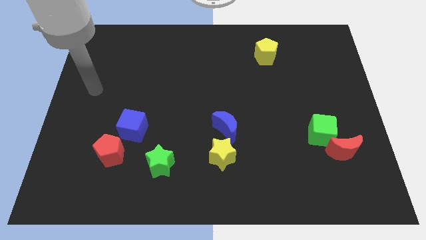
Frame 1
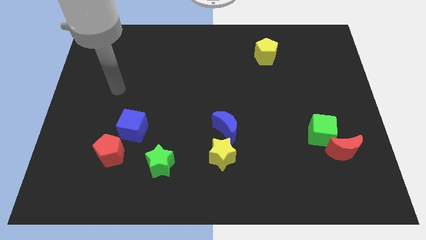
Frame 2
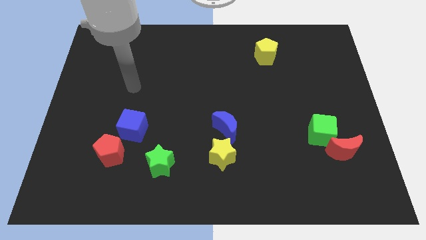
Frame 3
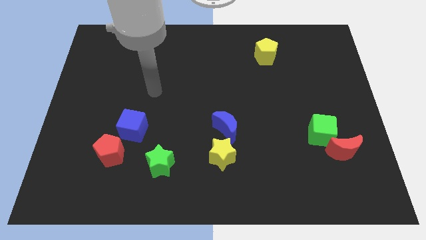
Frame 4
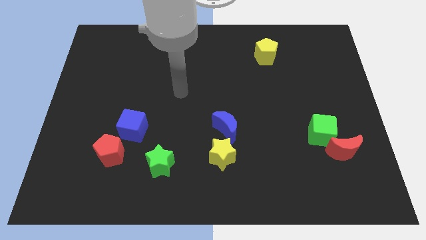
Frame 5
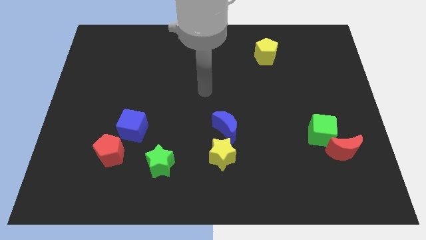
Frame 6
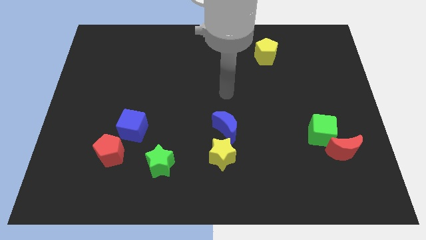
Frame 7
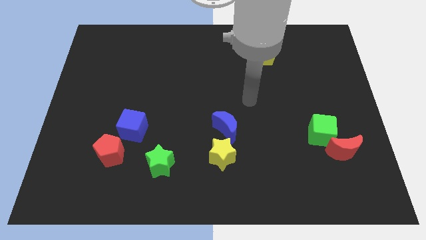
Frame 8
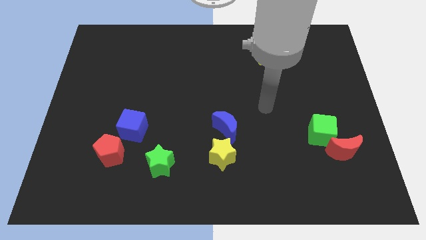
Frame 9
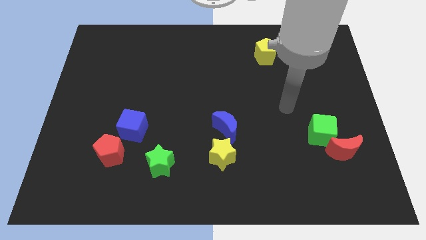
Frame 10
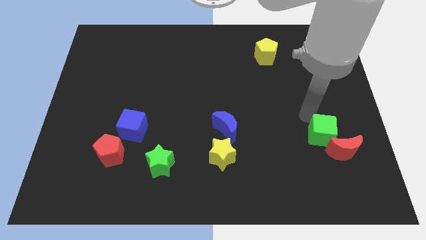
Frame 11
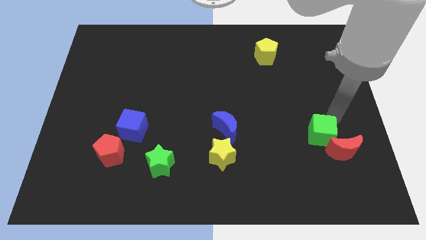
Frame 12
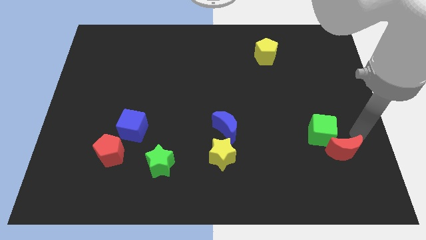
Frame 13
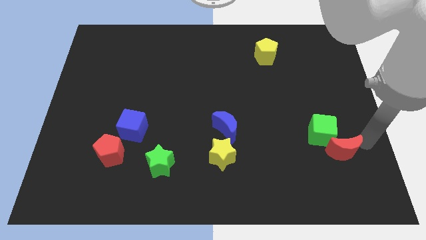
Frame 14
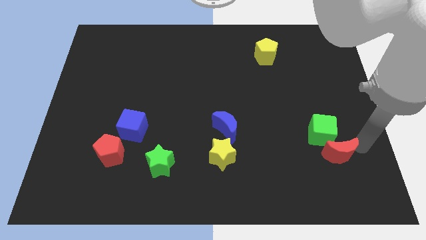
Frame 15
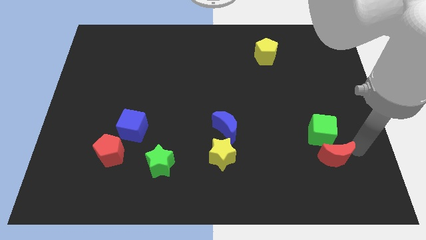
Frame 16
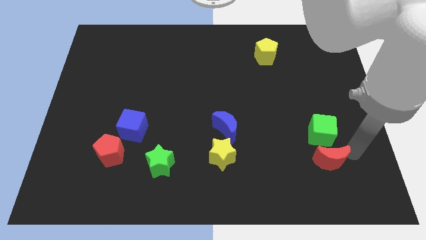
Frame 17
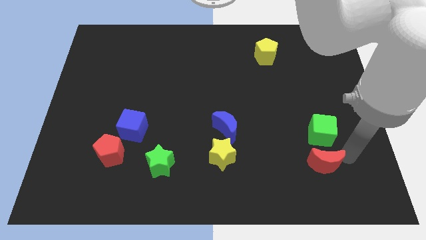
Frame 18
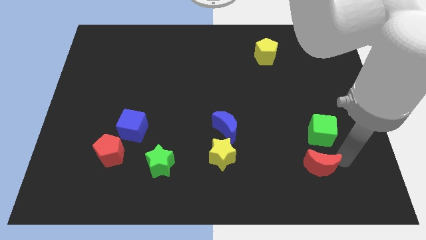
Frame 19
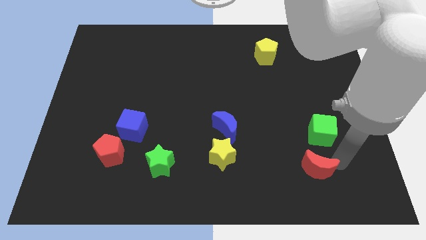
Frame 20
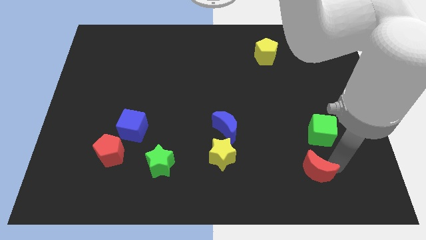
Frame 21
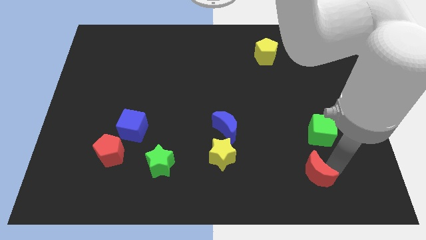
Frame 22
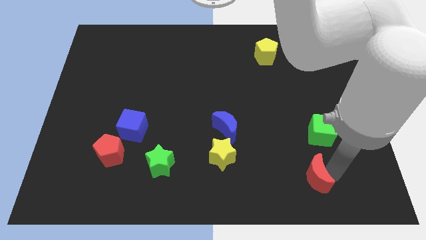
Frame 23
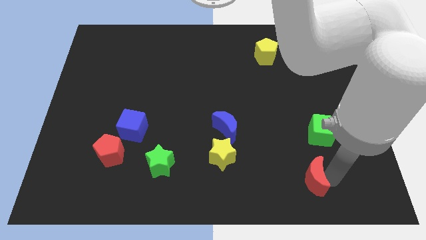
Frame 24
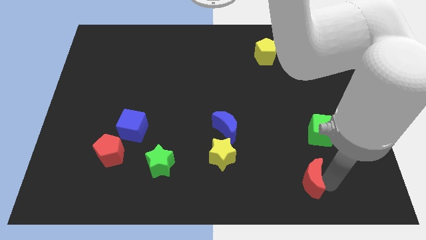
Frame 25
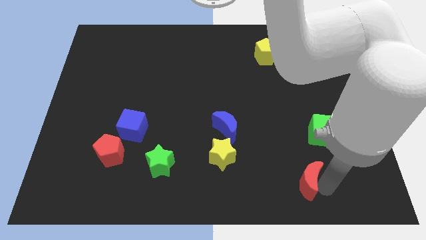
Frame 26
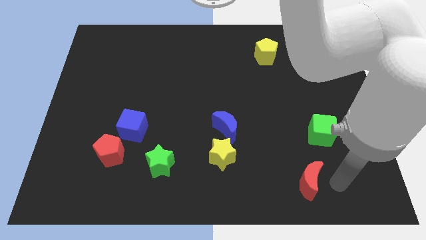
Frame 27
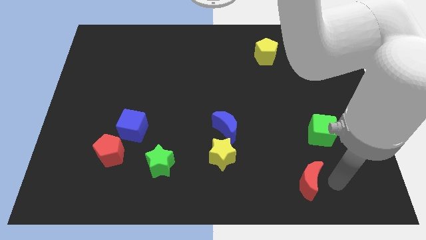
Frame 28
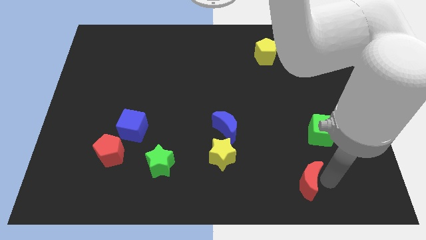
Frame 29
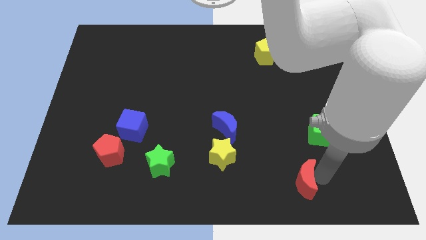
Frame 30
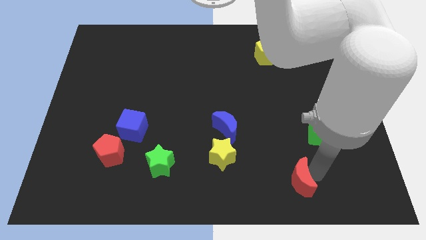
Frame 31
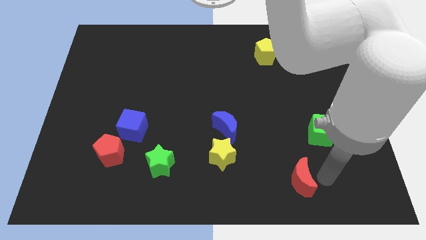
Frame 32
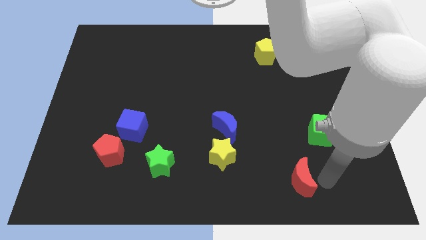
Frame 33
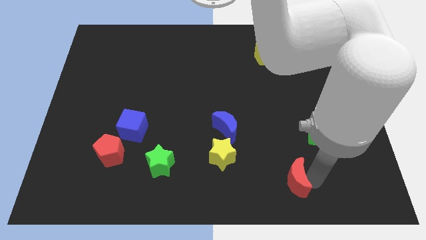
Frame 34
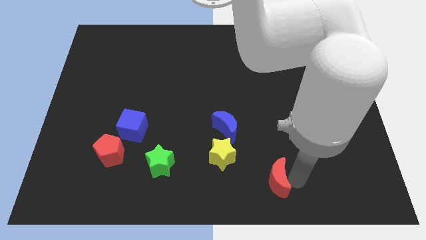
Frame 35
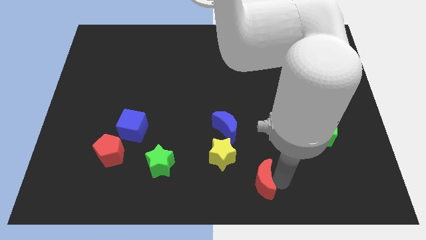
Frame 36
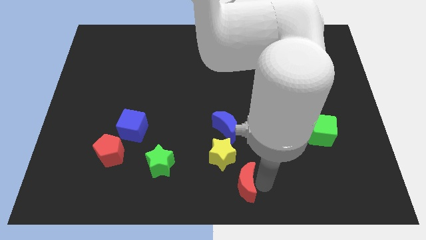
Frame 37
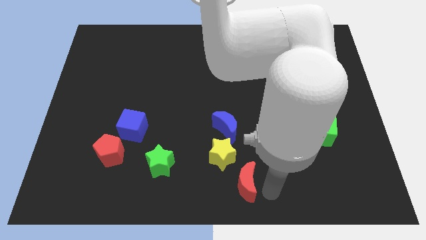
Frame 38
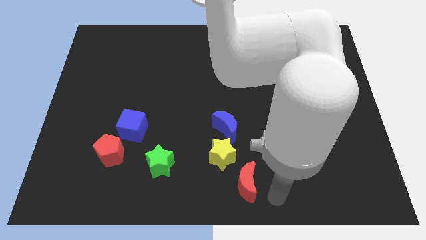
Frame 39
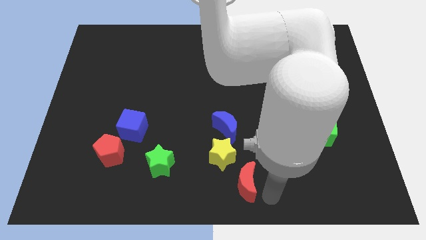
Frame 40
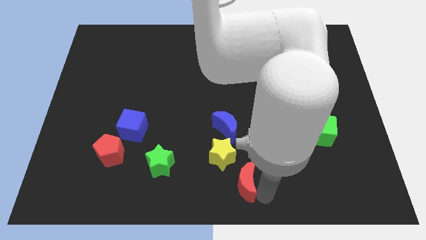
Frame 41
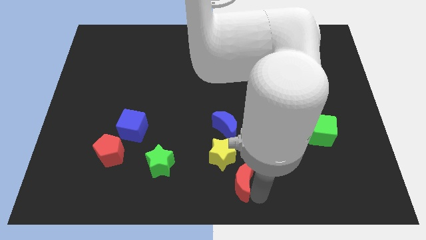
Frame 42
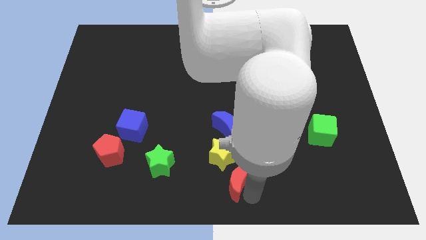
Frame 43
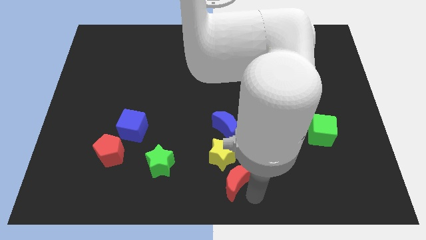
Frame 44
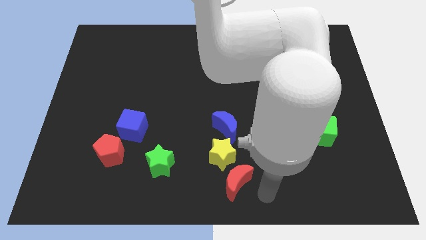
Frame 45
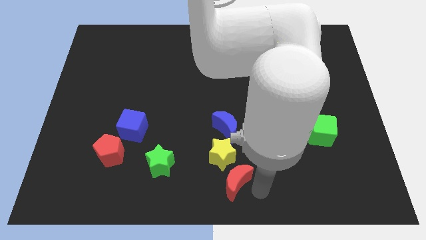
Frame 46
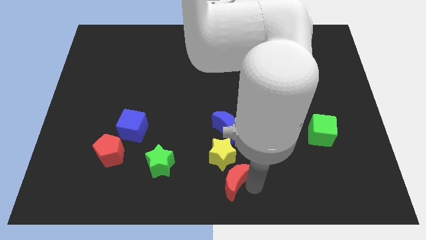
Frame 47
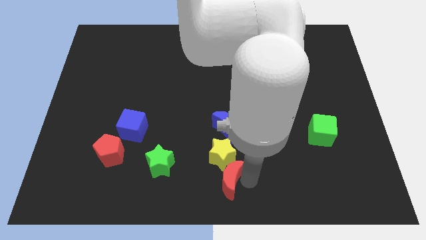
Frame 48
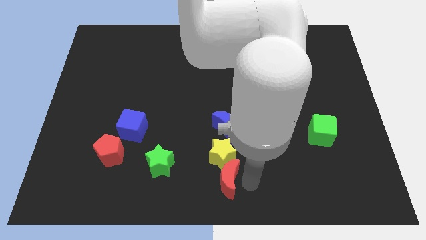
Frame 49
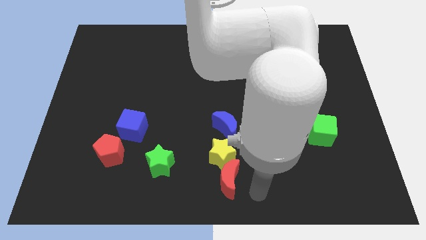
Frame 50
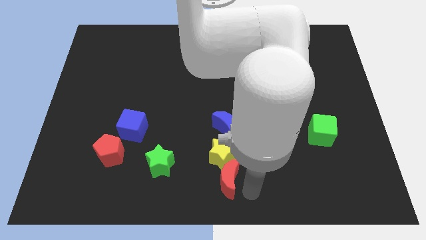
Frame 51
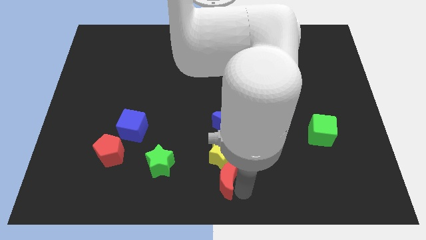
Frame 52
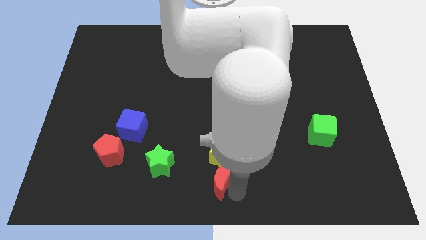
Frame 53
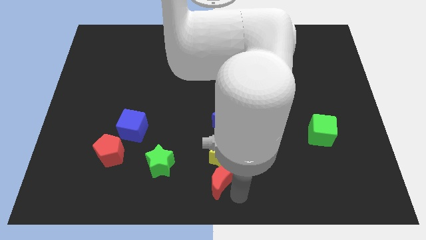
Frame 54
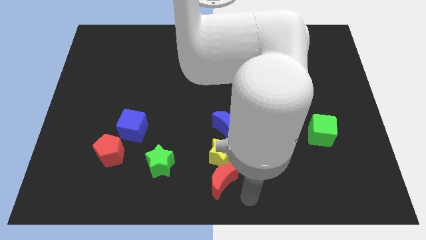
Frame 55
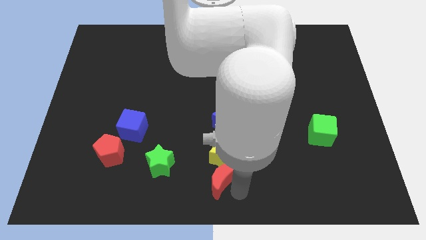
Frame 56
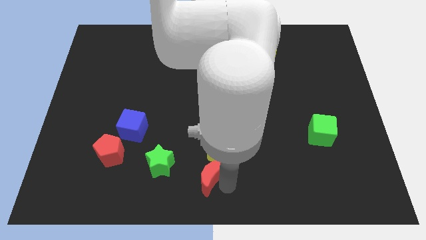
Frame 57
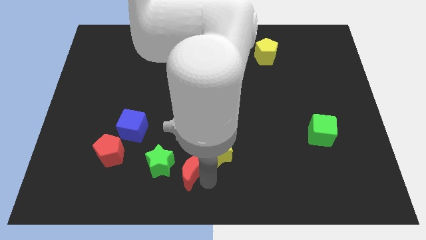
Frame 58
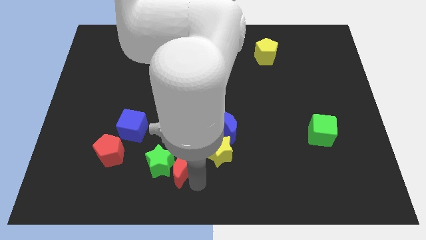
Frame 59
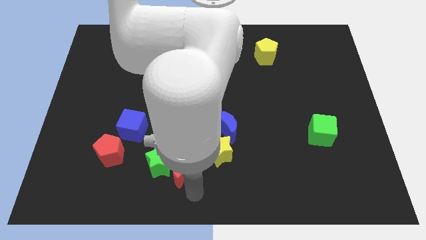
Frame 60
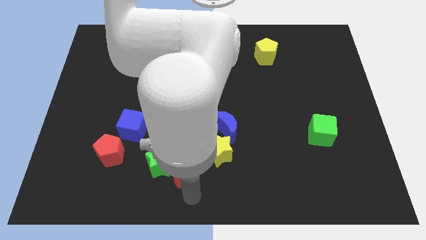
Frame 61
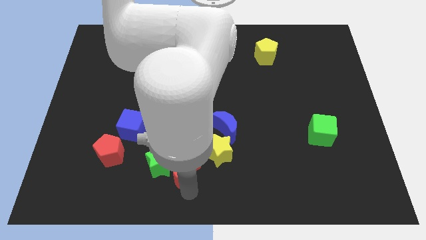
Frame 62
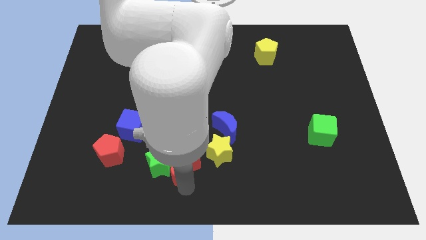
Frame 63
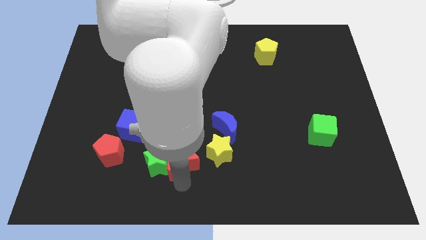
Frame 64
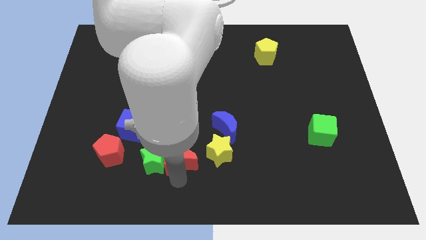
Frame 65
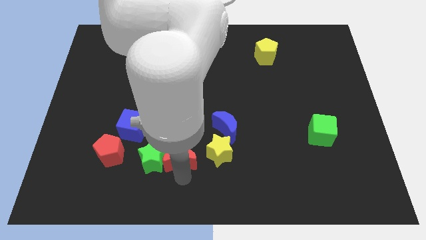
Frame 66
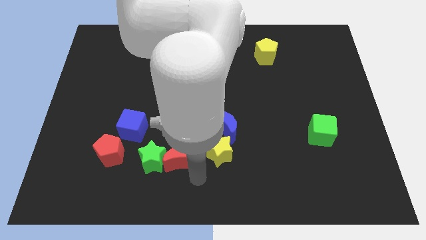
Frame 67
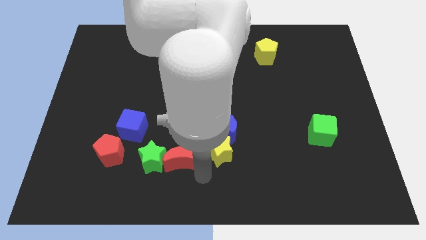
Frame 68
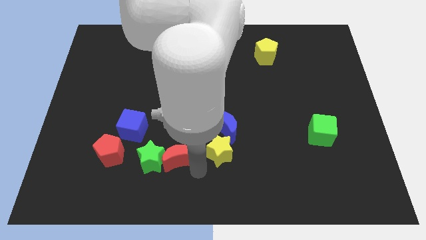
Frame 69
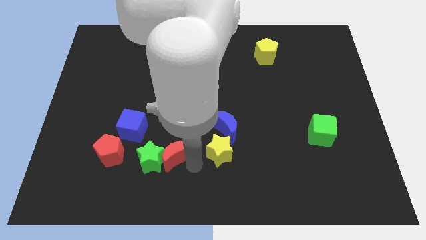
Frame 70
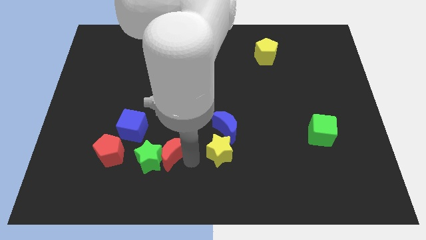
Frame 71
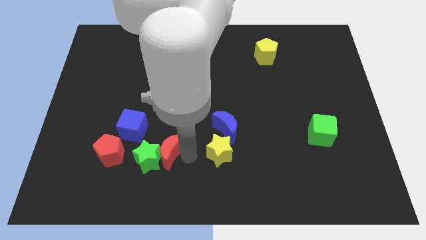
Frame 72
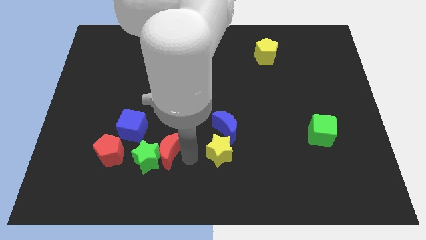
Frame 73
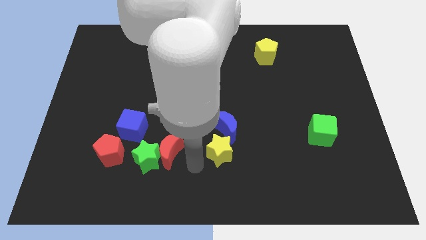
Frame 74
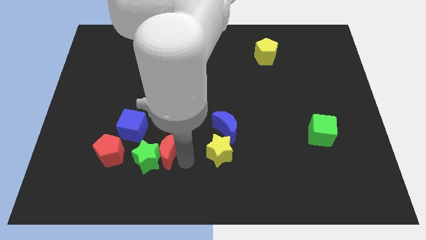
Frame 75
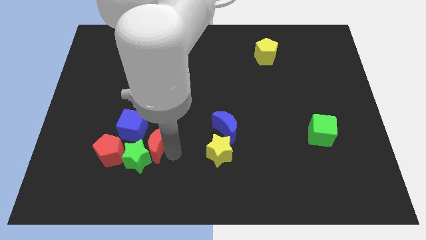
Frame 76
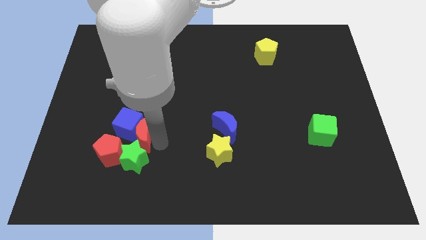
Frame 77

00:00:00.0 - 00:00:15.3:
slide the red moon to the top left of the green star
